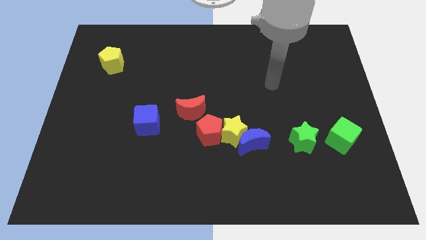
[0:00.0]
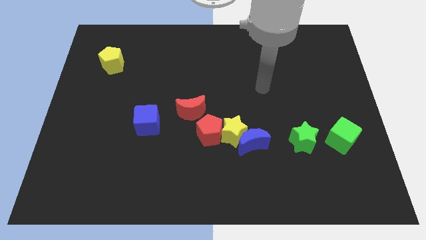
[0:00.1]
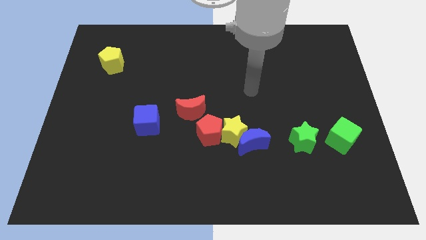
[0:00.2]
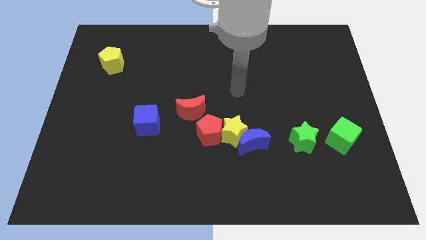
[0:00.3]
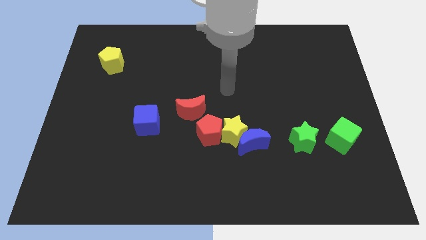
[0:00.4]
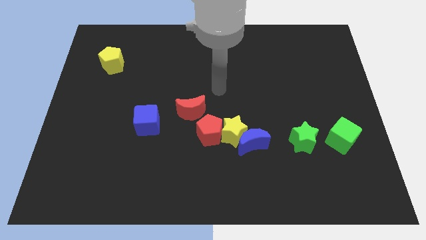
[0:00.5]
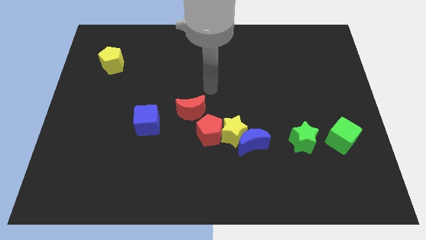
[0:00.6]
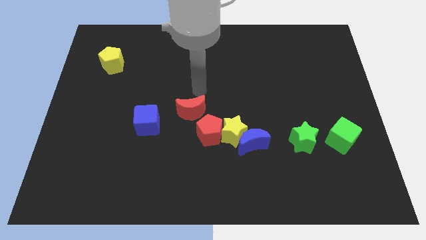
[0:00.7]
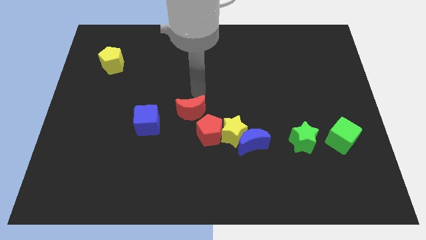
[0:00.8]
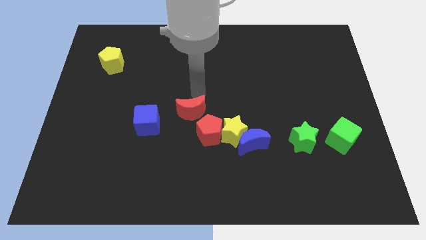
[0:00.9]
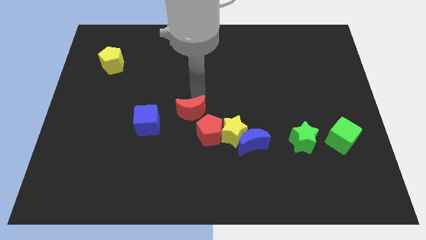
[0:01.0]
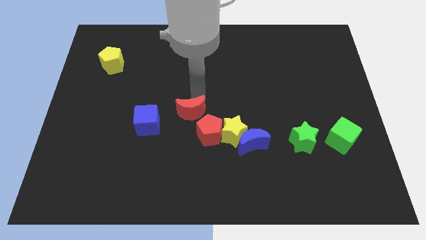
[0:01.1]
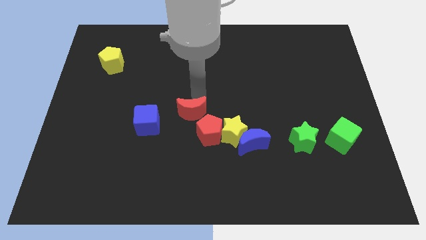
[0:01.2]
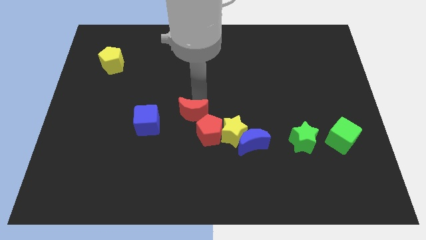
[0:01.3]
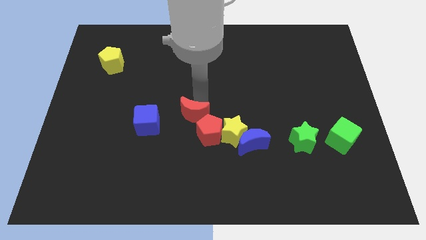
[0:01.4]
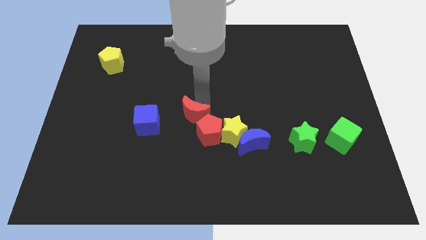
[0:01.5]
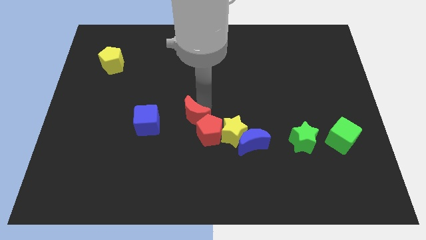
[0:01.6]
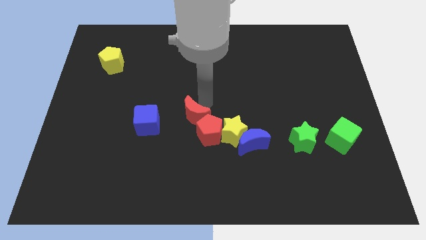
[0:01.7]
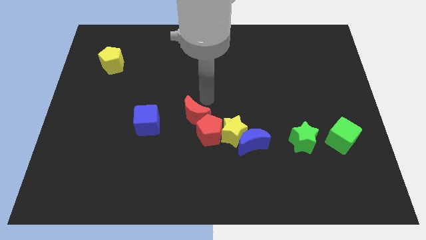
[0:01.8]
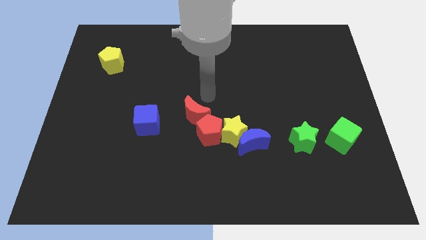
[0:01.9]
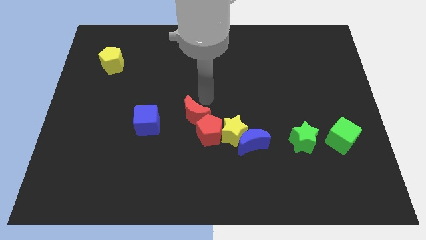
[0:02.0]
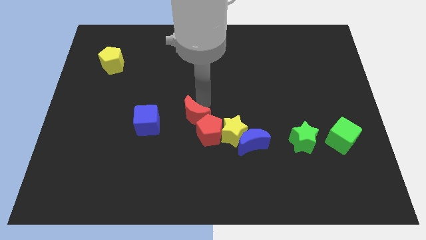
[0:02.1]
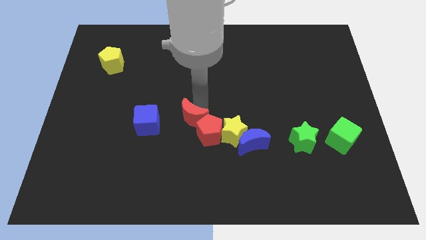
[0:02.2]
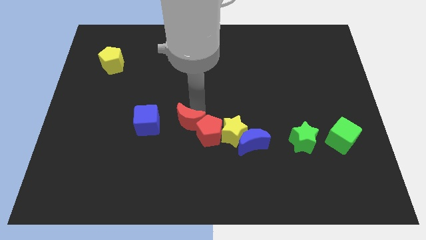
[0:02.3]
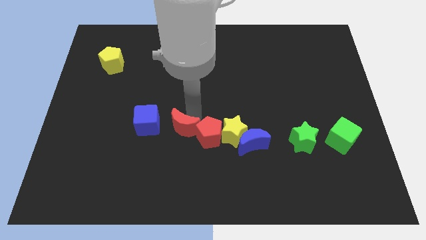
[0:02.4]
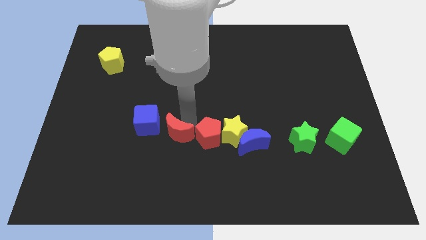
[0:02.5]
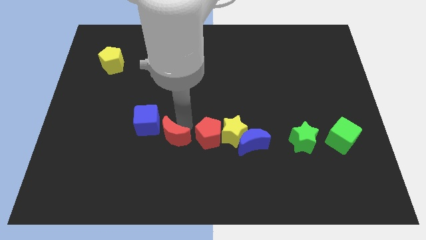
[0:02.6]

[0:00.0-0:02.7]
slightly push the red moon diagonally down and left

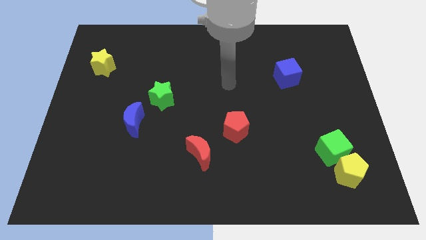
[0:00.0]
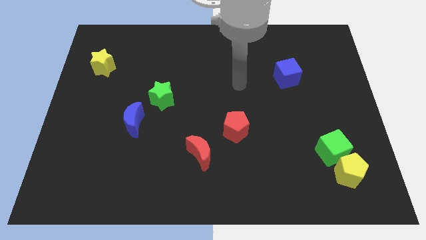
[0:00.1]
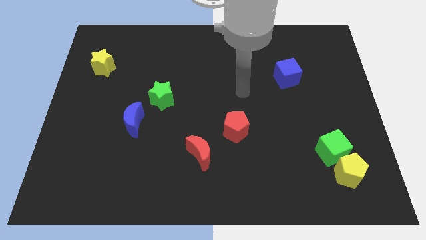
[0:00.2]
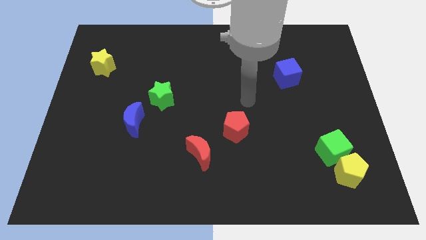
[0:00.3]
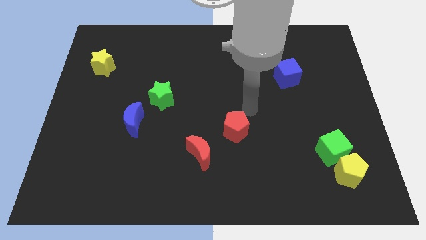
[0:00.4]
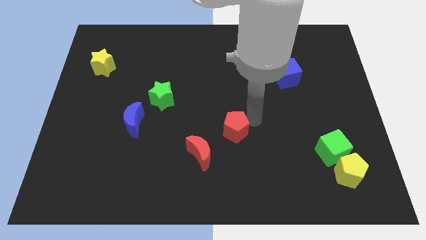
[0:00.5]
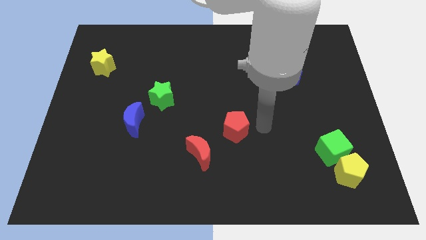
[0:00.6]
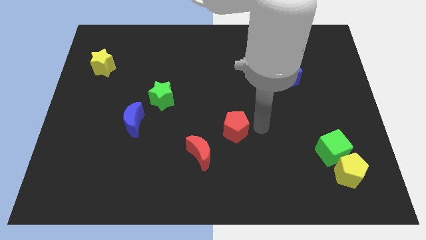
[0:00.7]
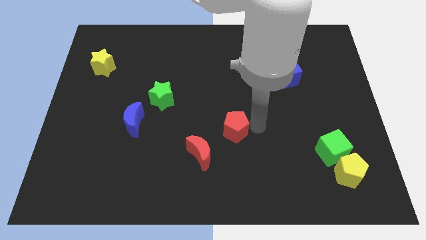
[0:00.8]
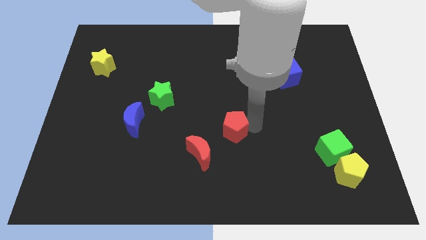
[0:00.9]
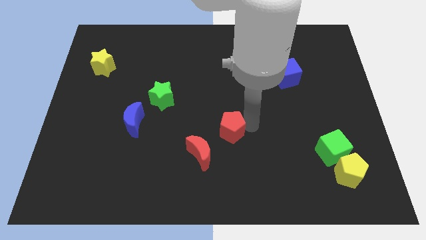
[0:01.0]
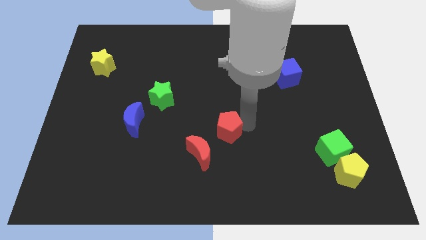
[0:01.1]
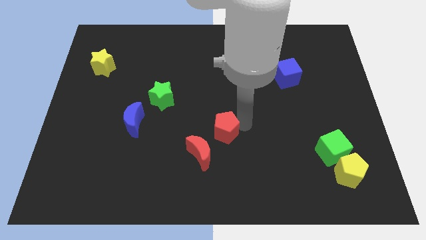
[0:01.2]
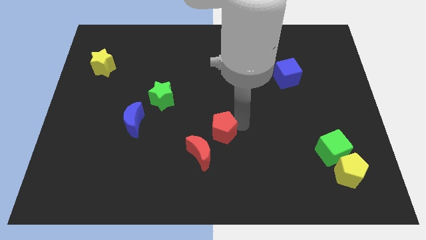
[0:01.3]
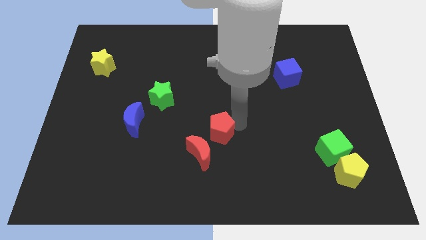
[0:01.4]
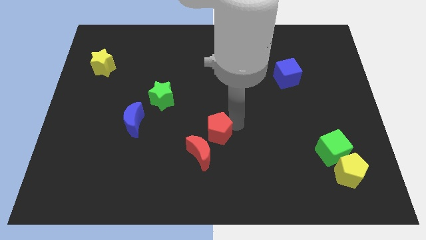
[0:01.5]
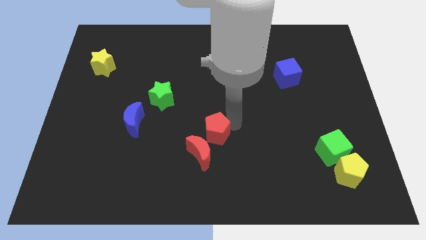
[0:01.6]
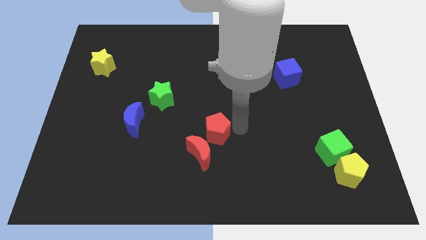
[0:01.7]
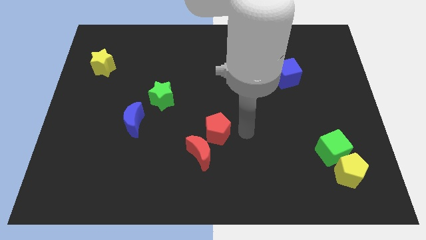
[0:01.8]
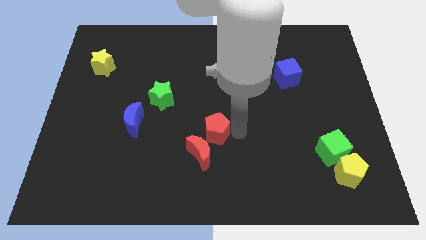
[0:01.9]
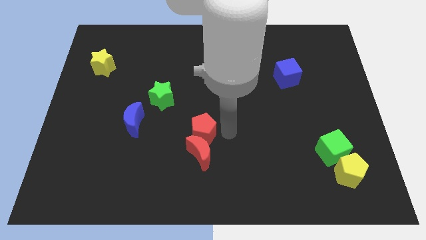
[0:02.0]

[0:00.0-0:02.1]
move the red pentagon to the left a bit

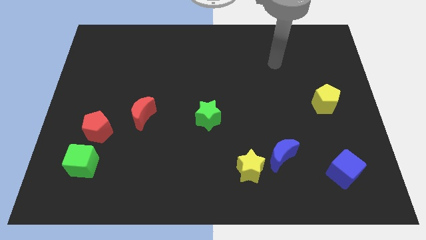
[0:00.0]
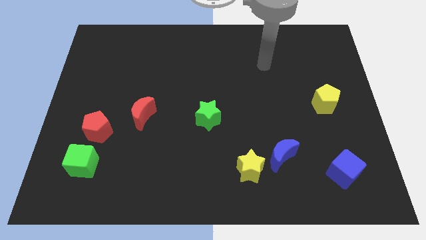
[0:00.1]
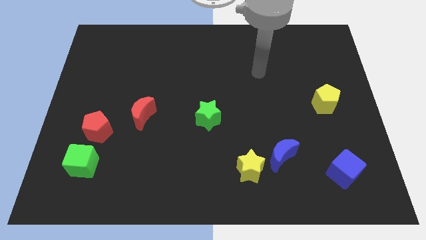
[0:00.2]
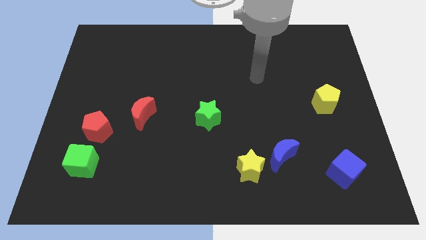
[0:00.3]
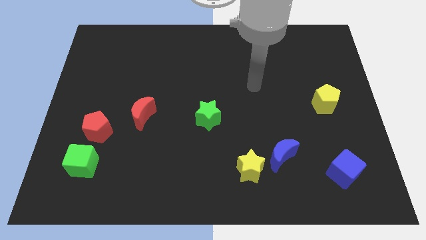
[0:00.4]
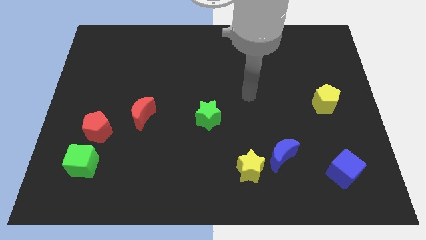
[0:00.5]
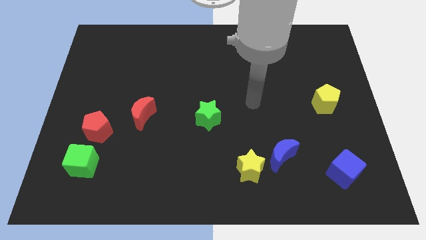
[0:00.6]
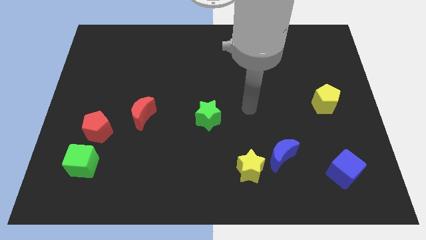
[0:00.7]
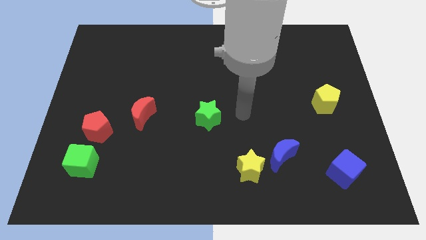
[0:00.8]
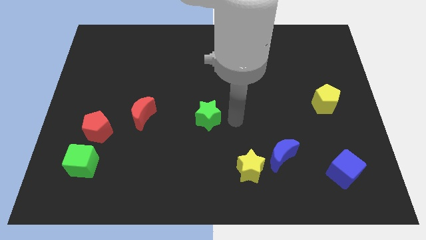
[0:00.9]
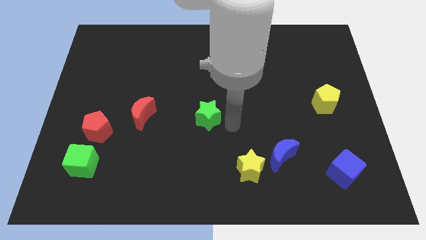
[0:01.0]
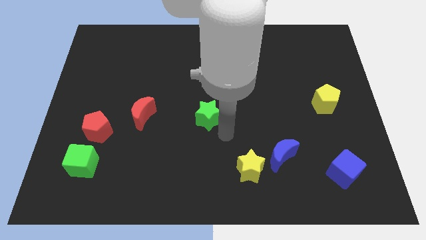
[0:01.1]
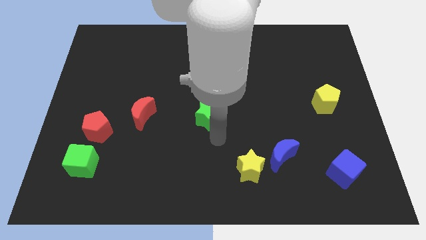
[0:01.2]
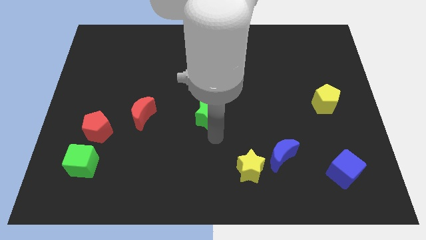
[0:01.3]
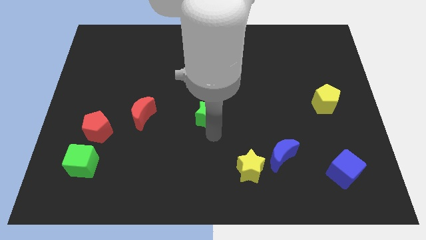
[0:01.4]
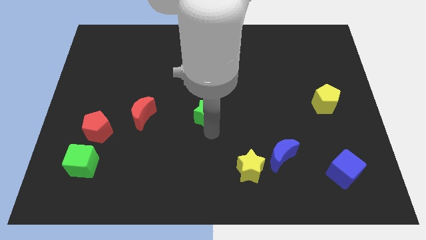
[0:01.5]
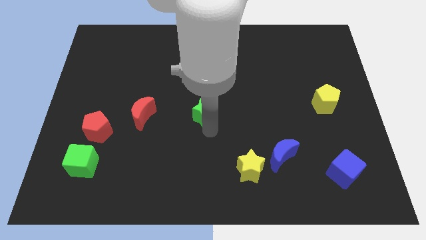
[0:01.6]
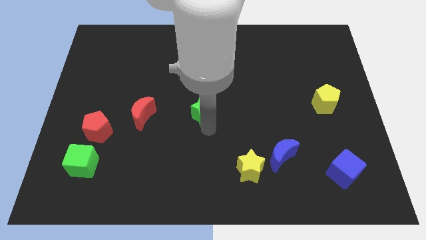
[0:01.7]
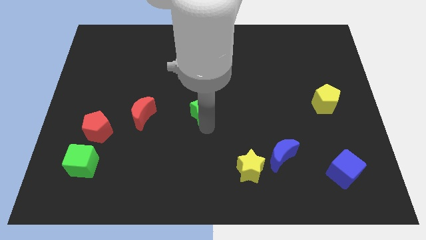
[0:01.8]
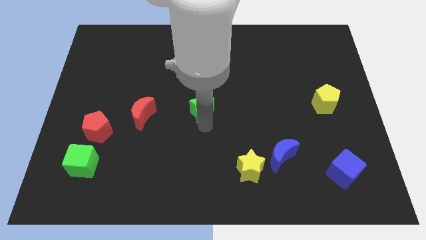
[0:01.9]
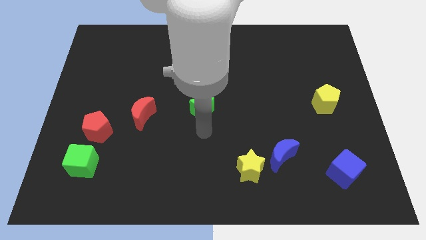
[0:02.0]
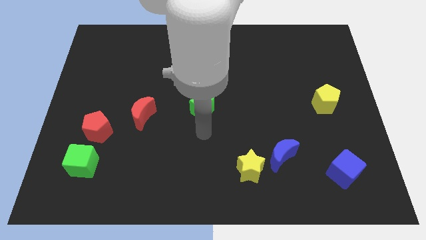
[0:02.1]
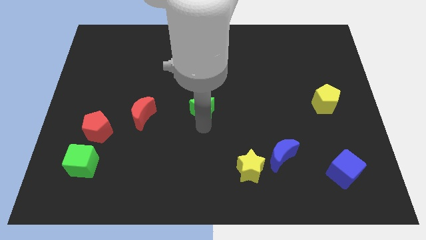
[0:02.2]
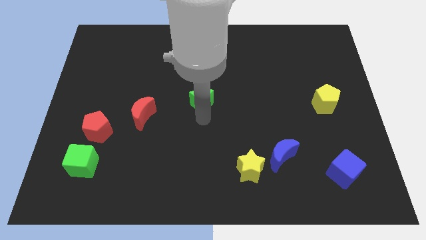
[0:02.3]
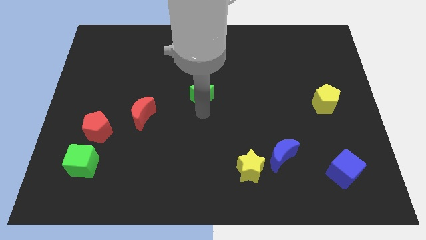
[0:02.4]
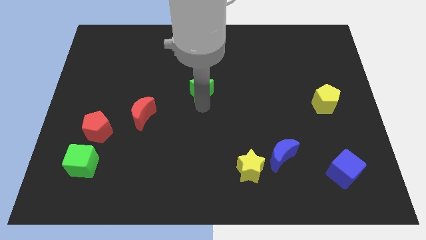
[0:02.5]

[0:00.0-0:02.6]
slightly slide the green star upwards

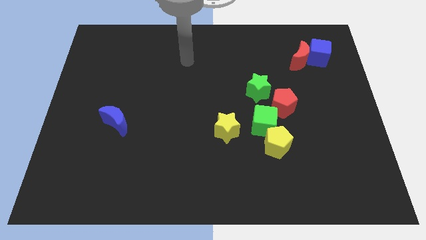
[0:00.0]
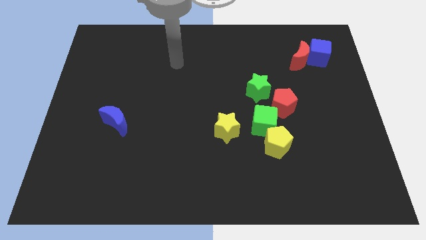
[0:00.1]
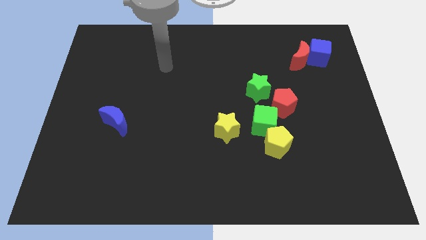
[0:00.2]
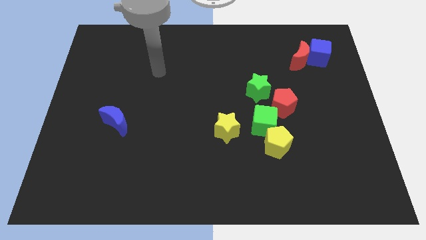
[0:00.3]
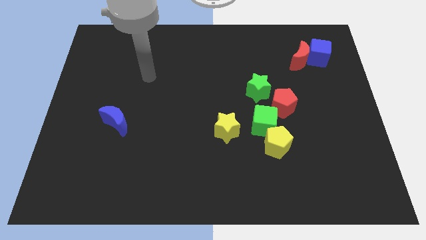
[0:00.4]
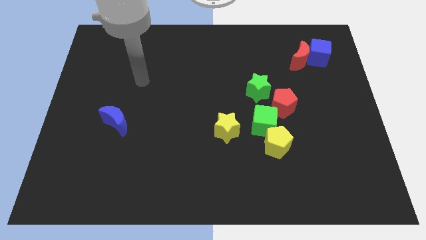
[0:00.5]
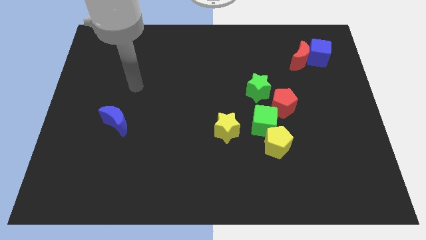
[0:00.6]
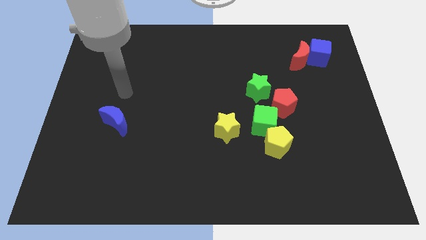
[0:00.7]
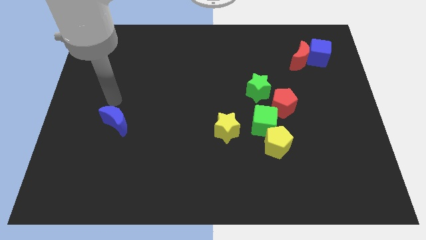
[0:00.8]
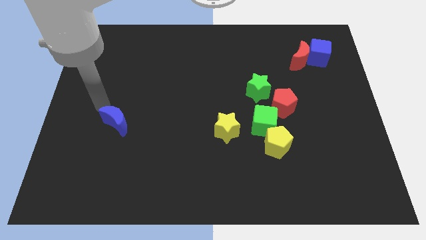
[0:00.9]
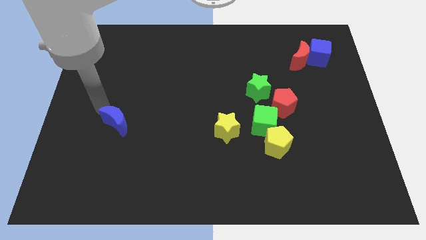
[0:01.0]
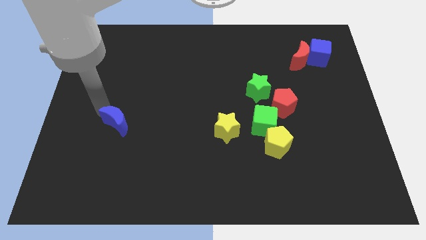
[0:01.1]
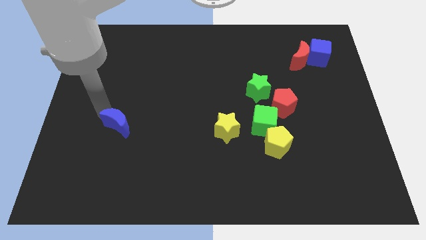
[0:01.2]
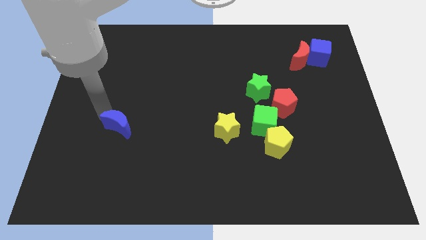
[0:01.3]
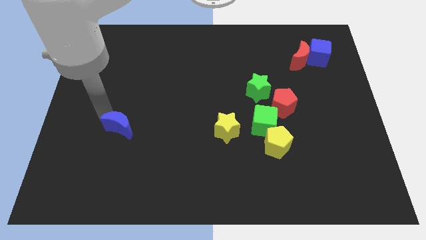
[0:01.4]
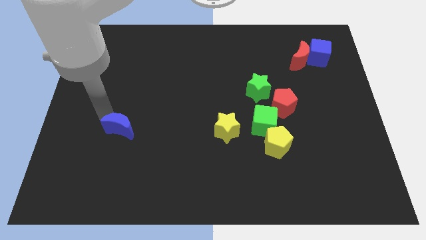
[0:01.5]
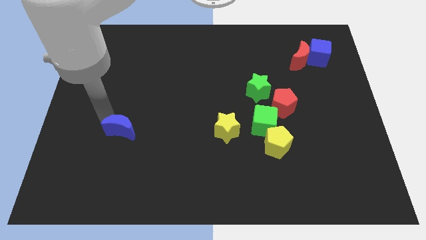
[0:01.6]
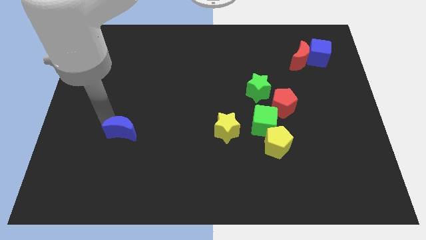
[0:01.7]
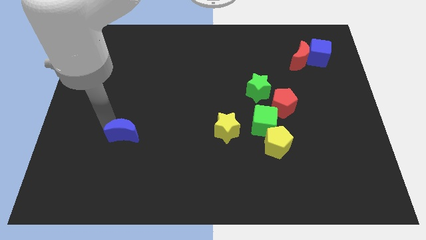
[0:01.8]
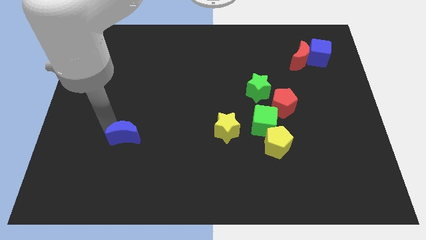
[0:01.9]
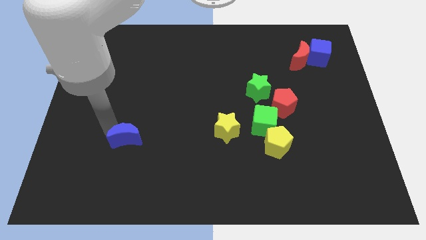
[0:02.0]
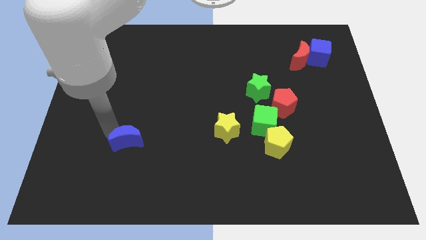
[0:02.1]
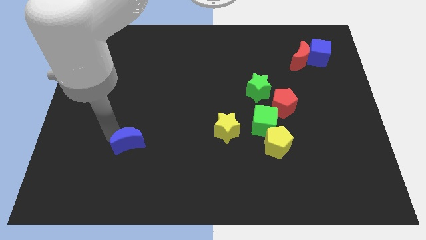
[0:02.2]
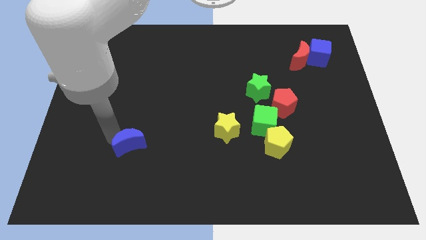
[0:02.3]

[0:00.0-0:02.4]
slightly slide the blue moon down and to the right diagonally
